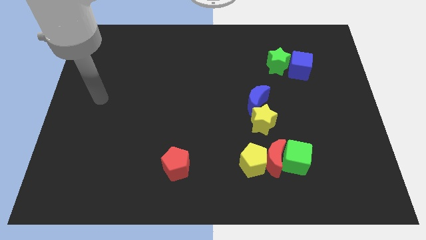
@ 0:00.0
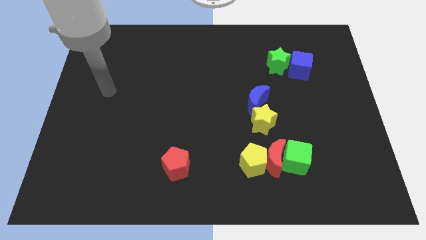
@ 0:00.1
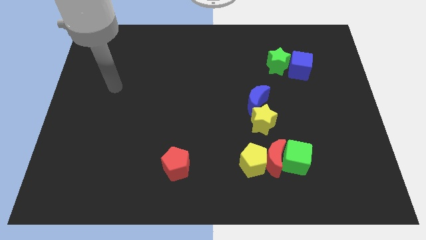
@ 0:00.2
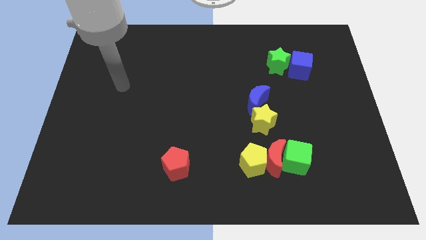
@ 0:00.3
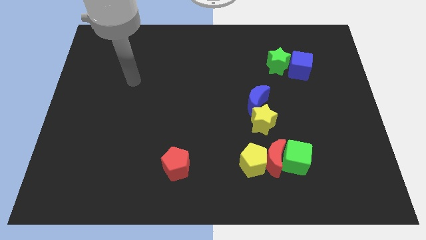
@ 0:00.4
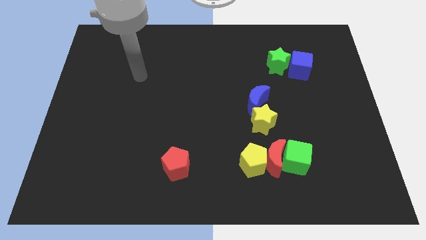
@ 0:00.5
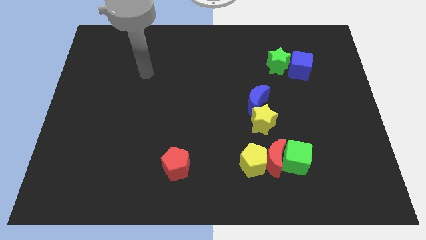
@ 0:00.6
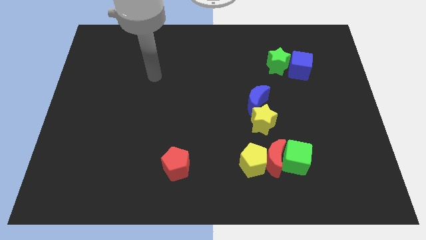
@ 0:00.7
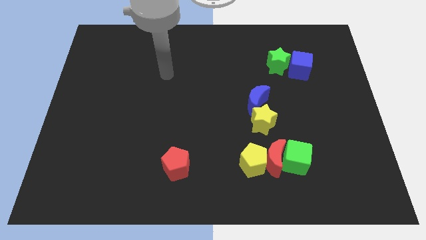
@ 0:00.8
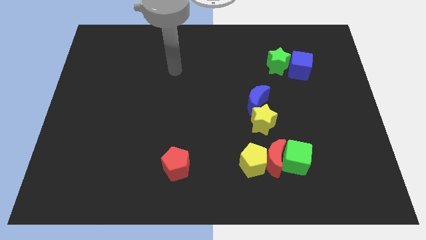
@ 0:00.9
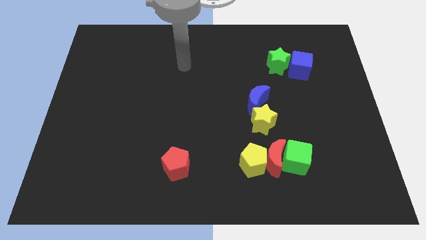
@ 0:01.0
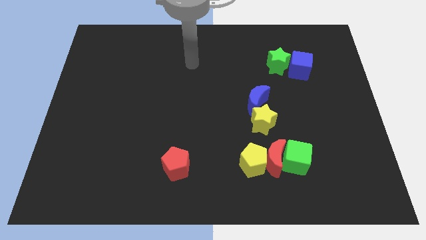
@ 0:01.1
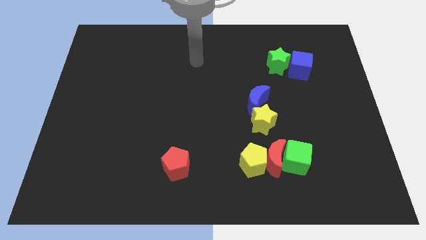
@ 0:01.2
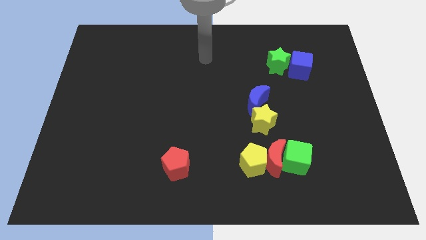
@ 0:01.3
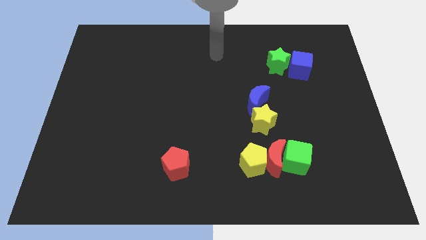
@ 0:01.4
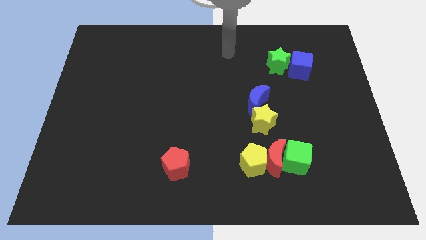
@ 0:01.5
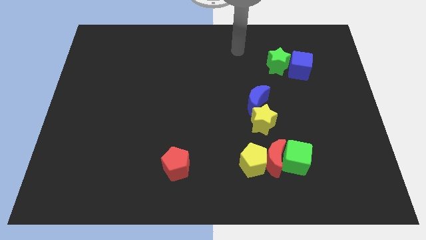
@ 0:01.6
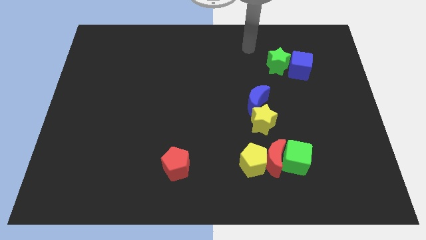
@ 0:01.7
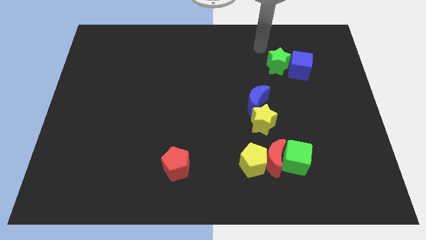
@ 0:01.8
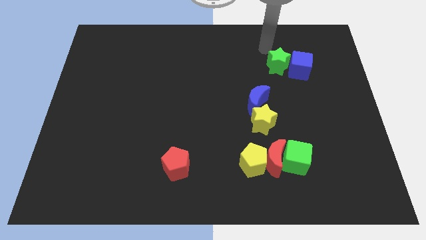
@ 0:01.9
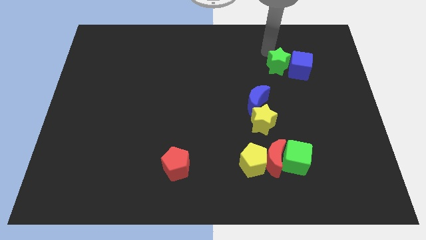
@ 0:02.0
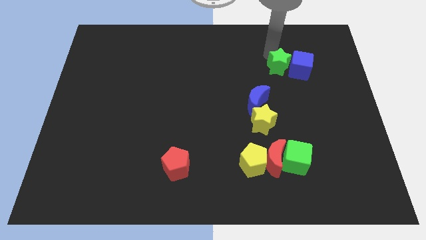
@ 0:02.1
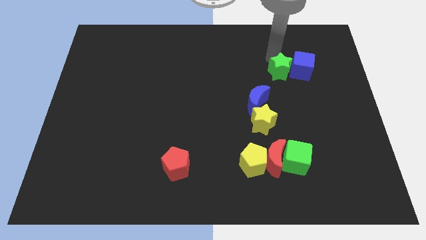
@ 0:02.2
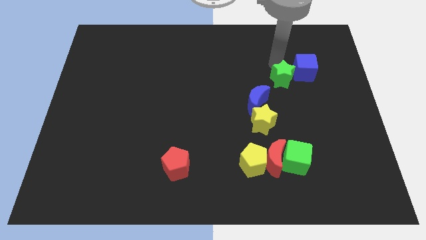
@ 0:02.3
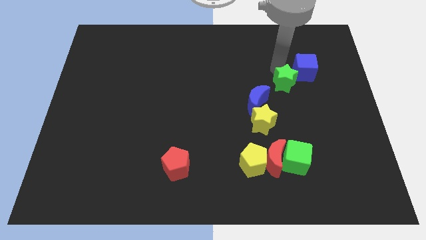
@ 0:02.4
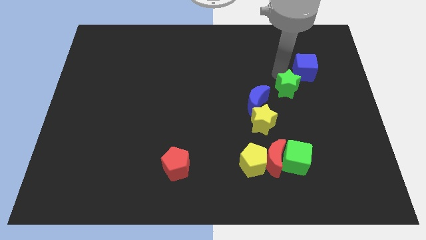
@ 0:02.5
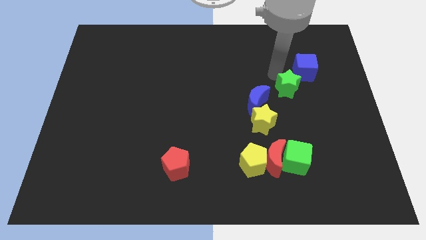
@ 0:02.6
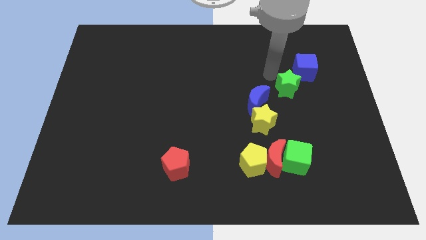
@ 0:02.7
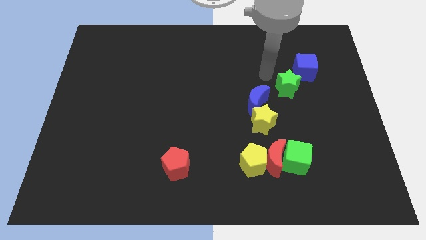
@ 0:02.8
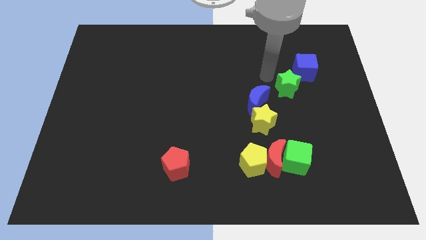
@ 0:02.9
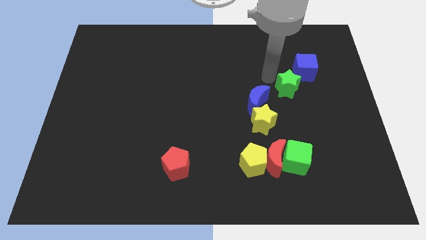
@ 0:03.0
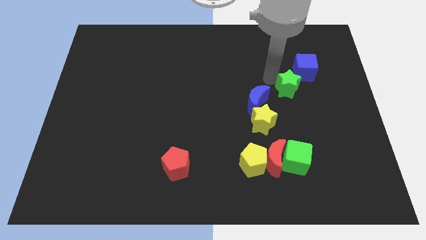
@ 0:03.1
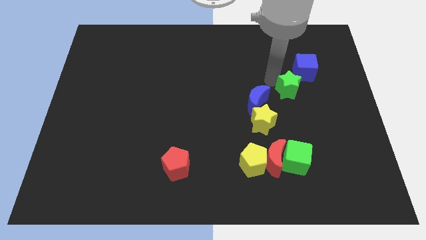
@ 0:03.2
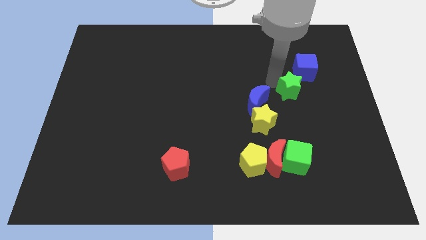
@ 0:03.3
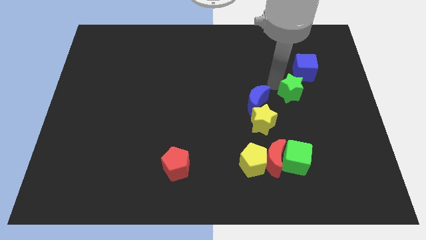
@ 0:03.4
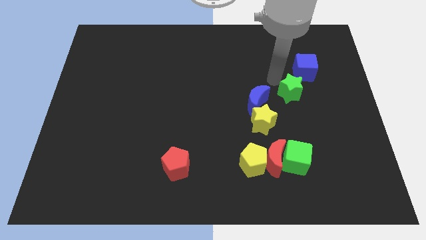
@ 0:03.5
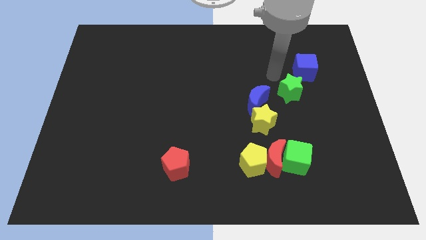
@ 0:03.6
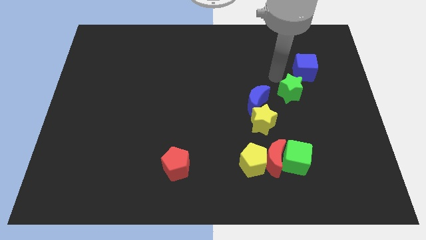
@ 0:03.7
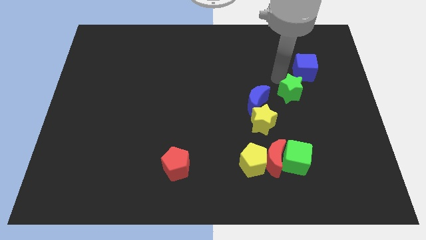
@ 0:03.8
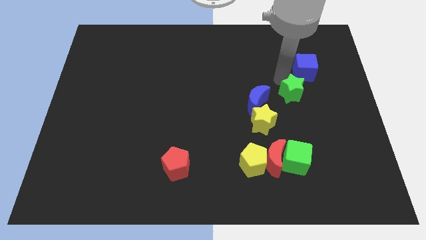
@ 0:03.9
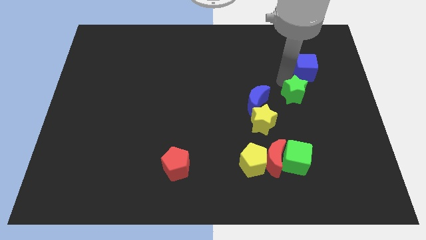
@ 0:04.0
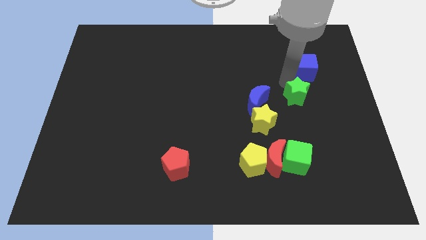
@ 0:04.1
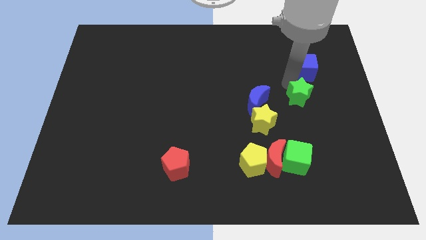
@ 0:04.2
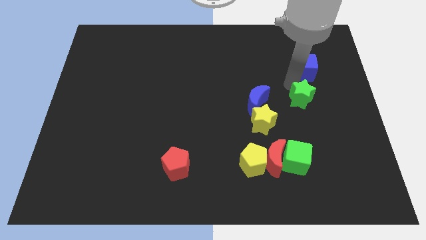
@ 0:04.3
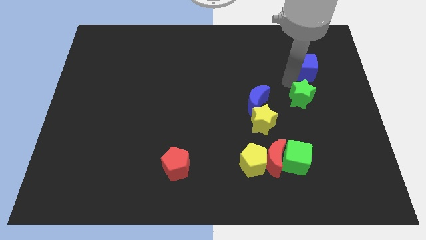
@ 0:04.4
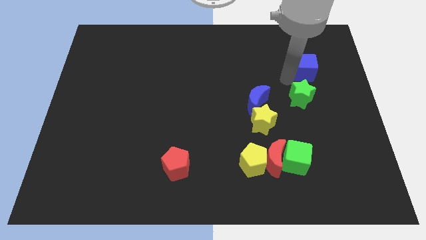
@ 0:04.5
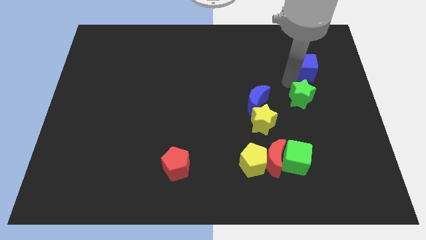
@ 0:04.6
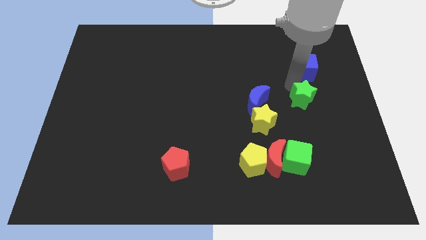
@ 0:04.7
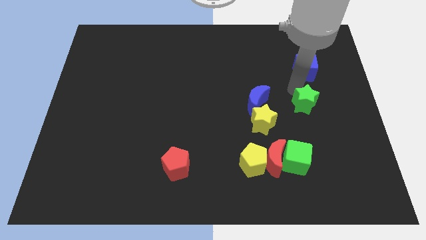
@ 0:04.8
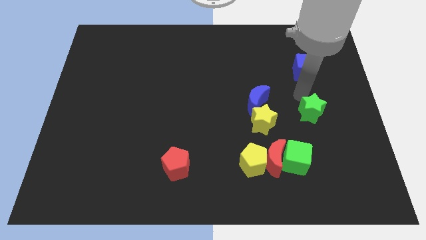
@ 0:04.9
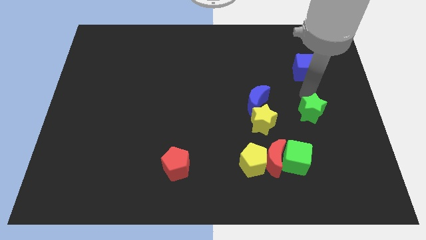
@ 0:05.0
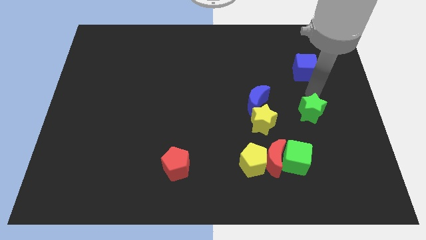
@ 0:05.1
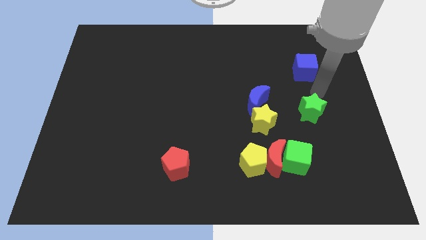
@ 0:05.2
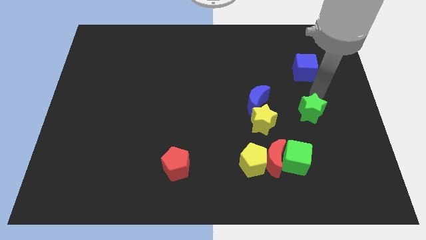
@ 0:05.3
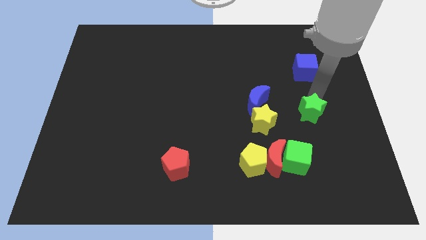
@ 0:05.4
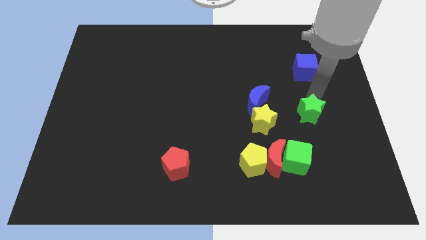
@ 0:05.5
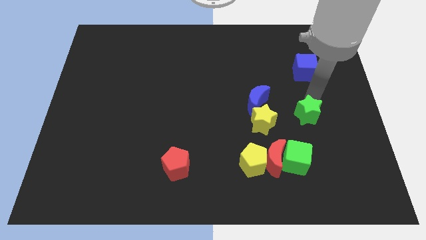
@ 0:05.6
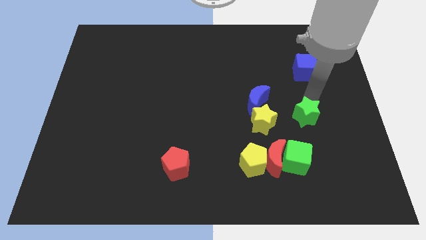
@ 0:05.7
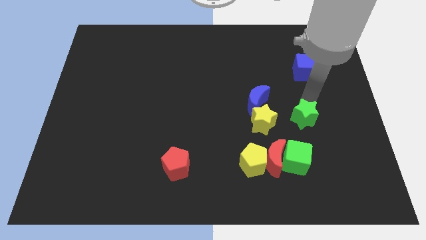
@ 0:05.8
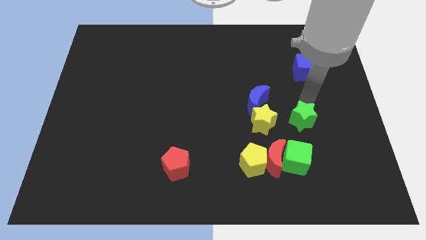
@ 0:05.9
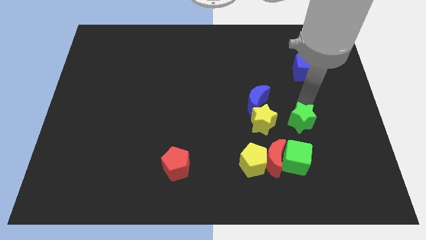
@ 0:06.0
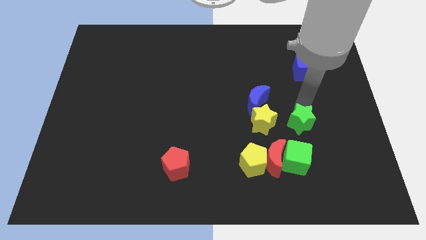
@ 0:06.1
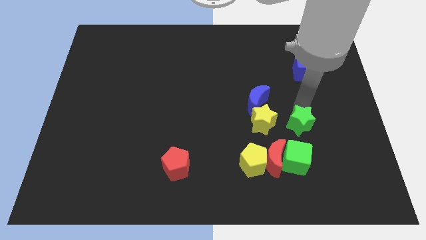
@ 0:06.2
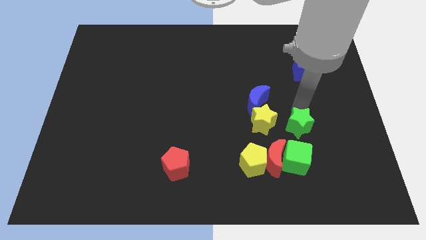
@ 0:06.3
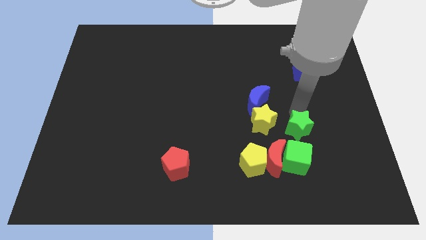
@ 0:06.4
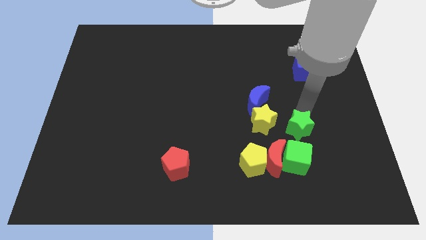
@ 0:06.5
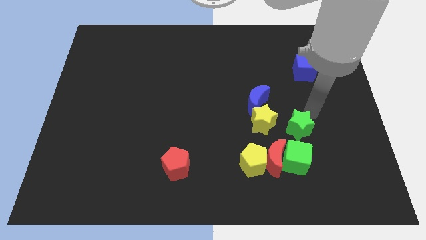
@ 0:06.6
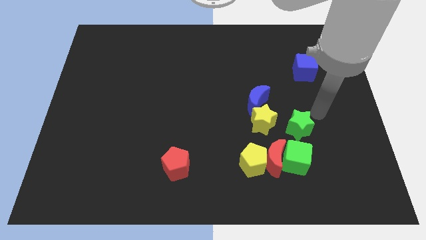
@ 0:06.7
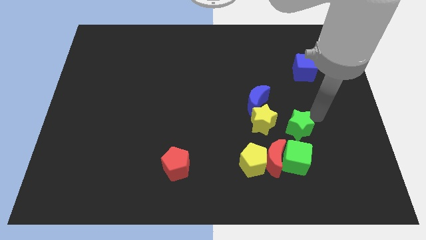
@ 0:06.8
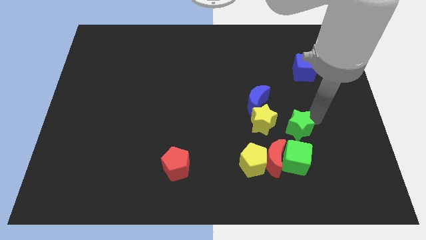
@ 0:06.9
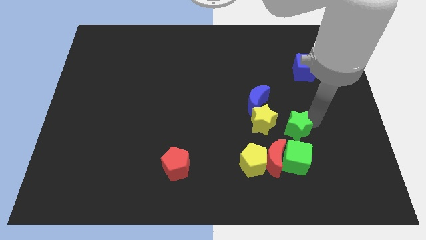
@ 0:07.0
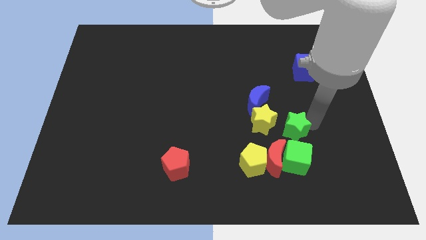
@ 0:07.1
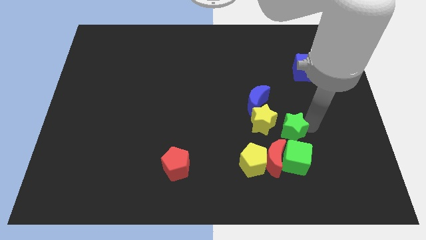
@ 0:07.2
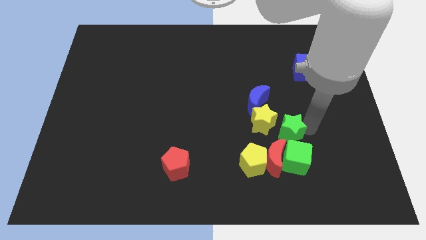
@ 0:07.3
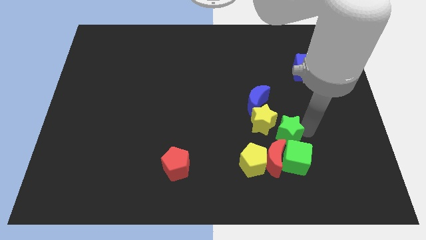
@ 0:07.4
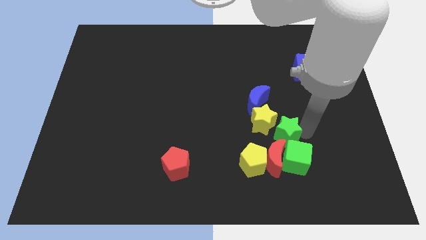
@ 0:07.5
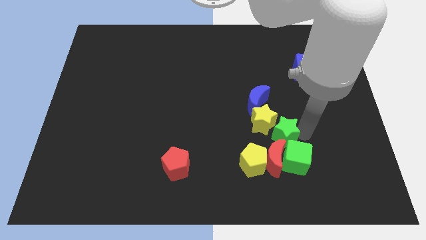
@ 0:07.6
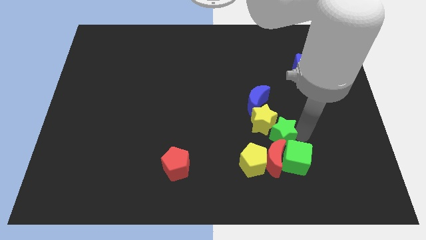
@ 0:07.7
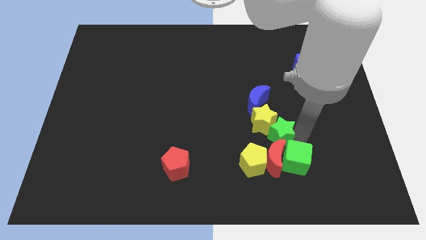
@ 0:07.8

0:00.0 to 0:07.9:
slide the green star to the red moon
